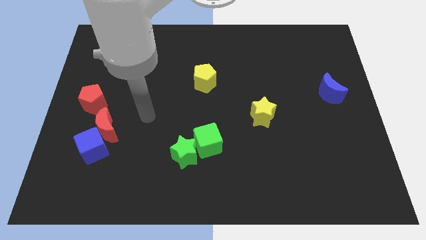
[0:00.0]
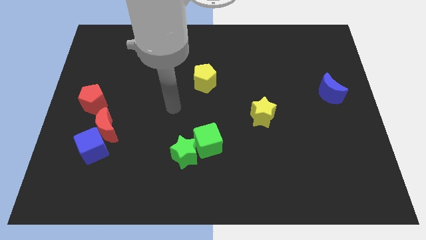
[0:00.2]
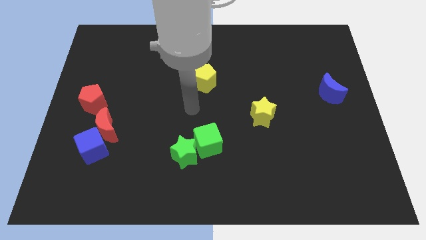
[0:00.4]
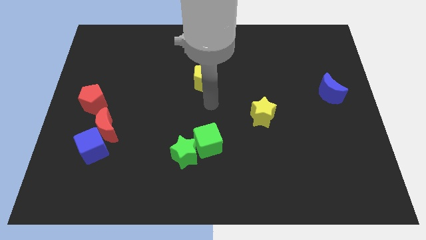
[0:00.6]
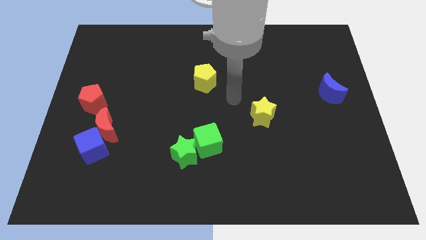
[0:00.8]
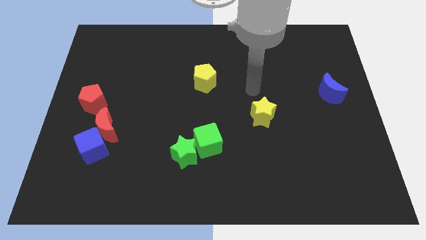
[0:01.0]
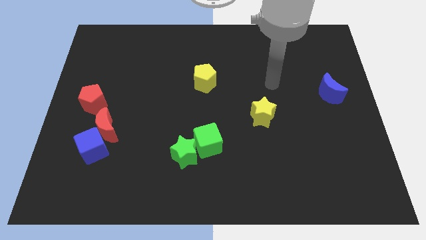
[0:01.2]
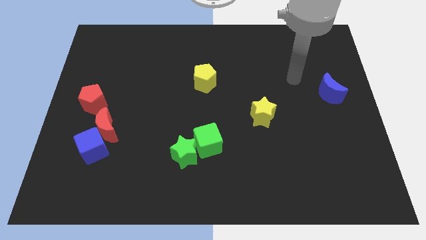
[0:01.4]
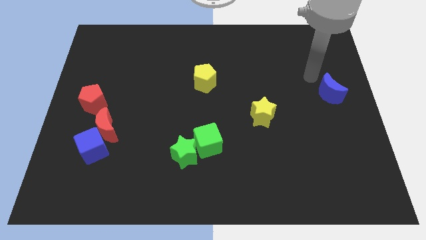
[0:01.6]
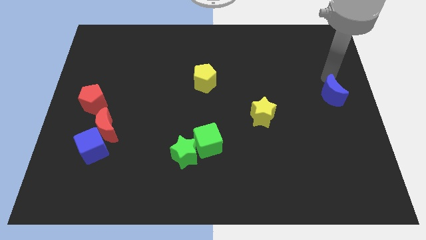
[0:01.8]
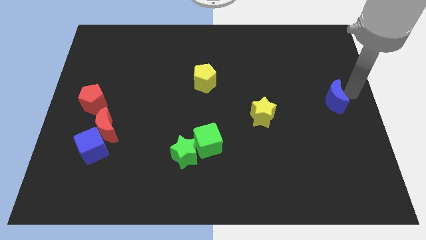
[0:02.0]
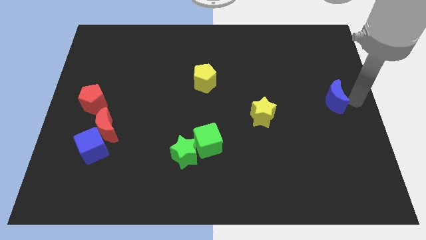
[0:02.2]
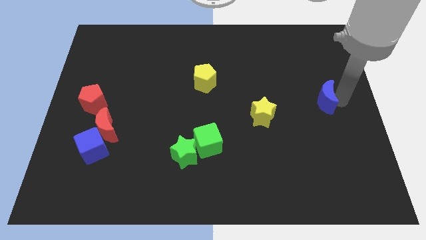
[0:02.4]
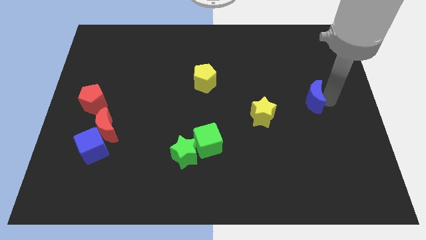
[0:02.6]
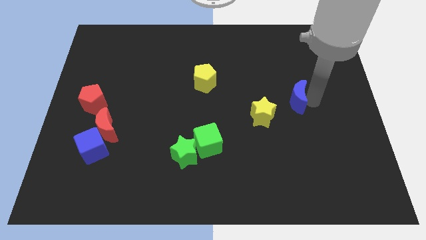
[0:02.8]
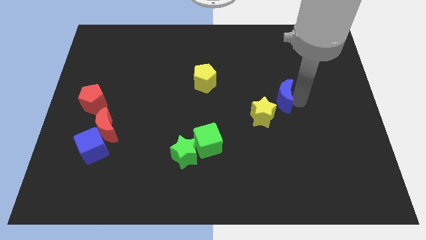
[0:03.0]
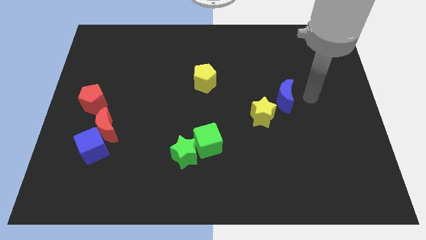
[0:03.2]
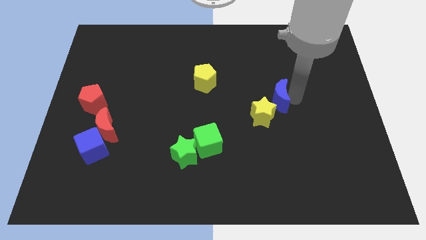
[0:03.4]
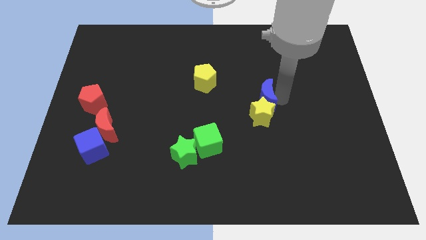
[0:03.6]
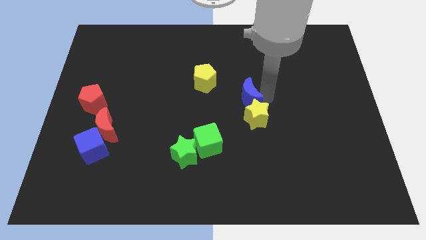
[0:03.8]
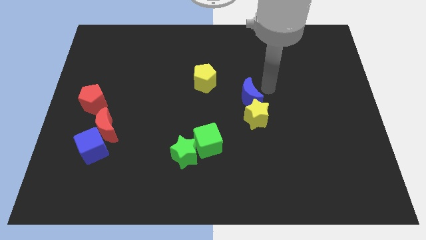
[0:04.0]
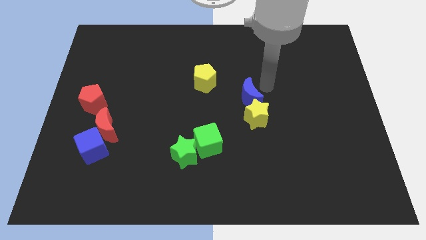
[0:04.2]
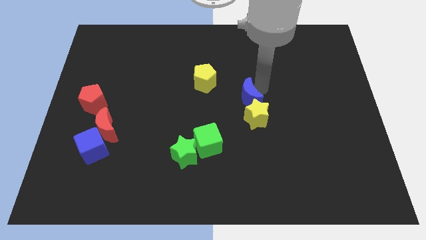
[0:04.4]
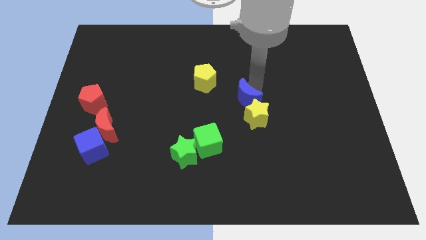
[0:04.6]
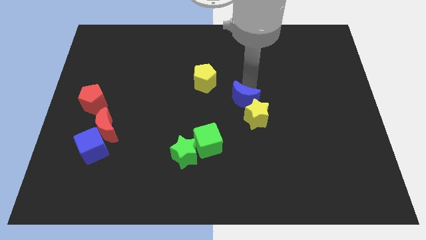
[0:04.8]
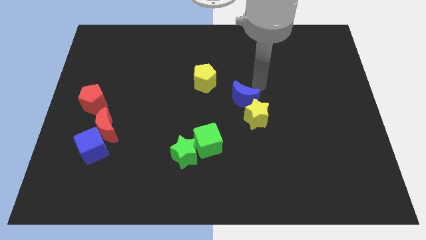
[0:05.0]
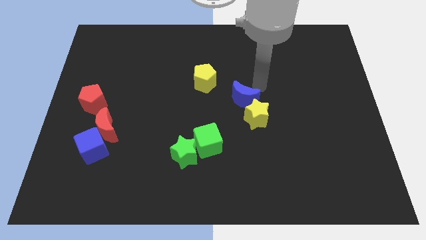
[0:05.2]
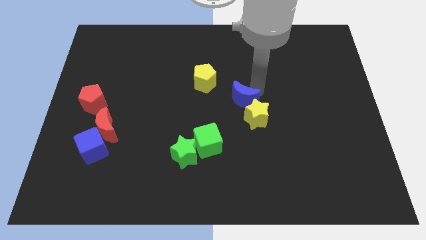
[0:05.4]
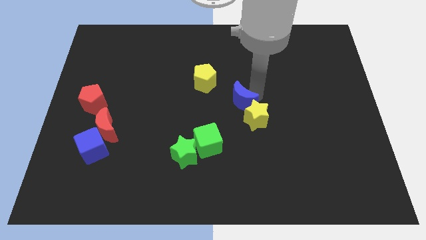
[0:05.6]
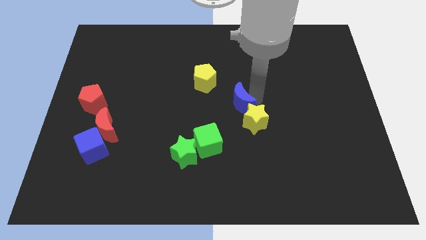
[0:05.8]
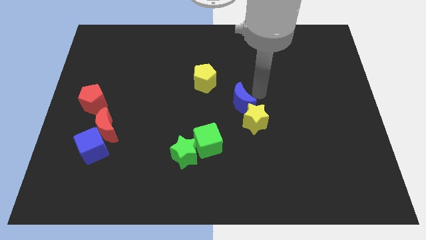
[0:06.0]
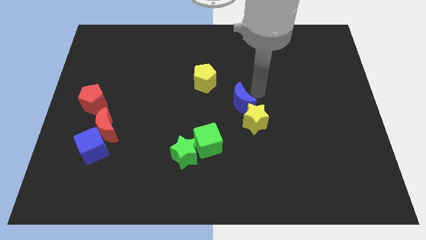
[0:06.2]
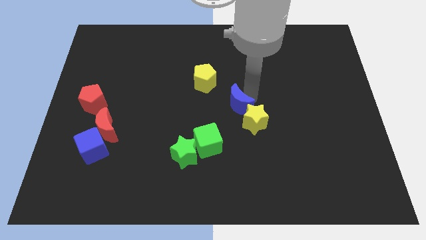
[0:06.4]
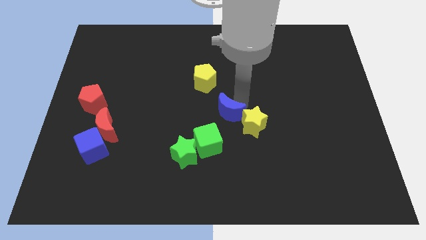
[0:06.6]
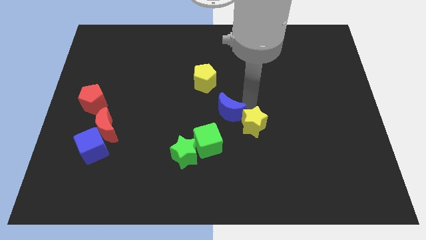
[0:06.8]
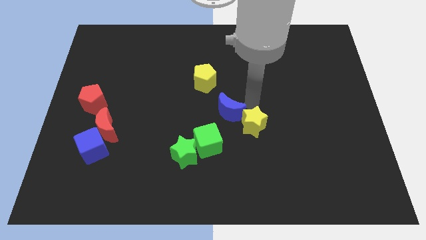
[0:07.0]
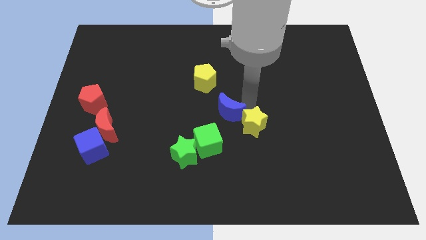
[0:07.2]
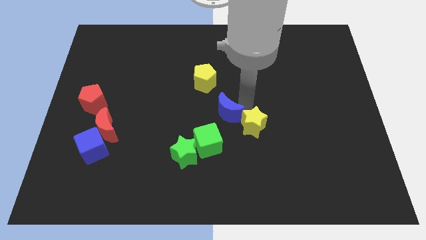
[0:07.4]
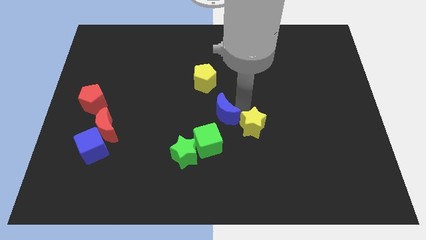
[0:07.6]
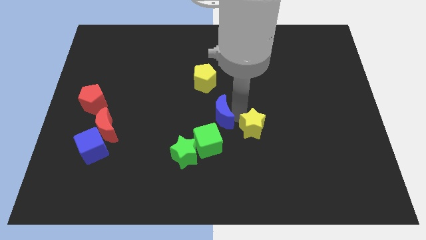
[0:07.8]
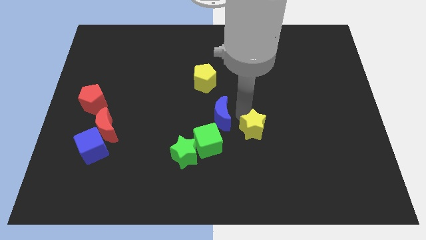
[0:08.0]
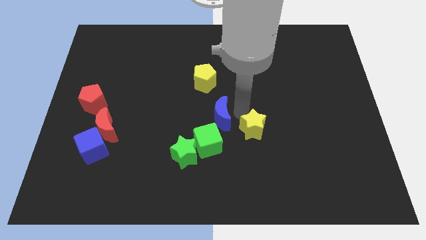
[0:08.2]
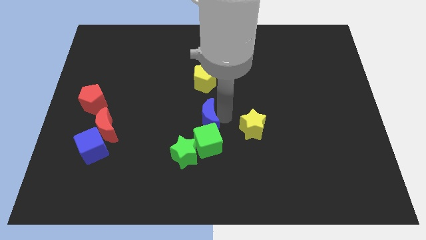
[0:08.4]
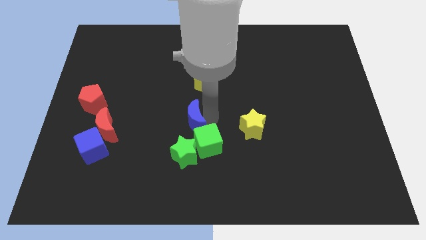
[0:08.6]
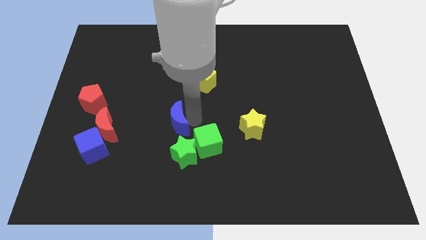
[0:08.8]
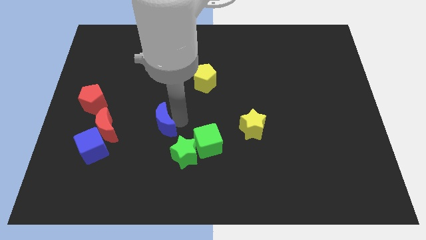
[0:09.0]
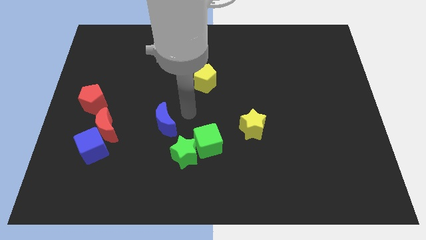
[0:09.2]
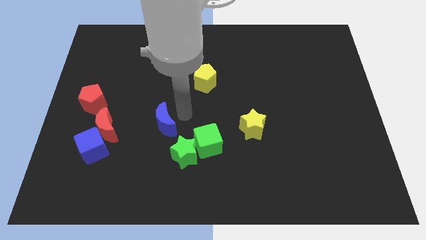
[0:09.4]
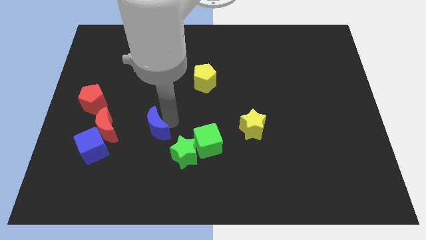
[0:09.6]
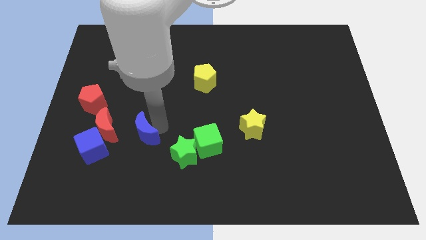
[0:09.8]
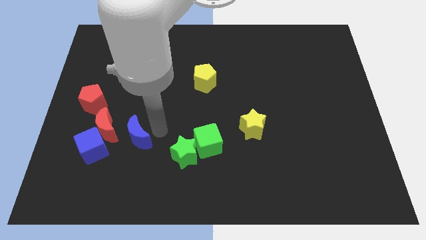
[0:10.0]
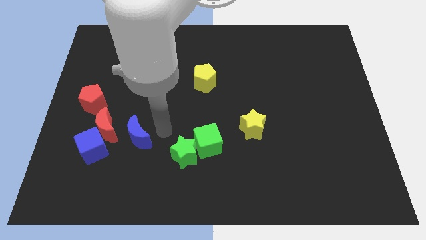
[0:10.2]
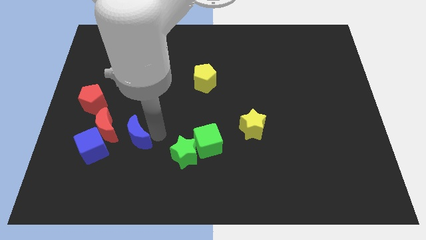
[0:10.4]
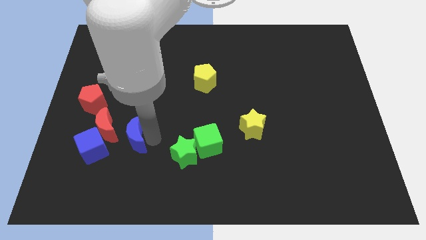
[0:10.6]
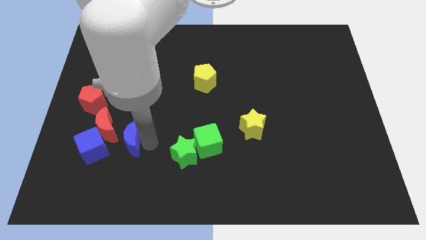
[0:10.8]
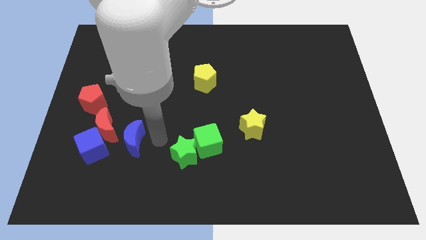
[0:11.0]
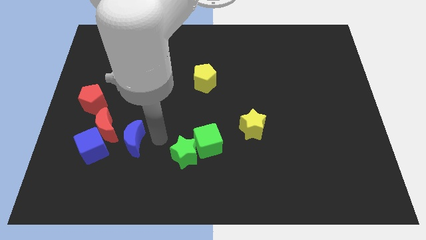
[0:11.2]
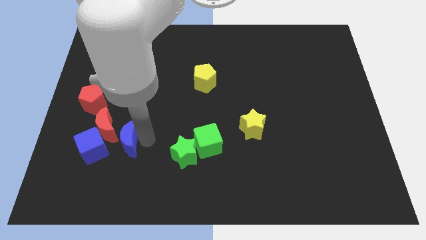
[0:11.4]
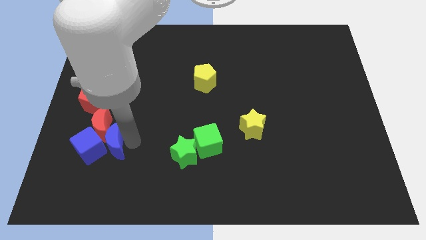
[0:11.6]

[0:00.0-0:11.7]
push the blue moon towards the blue cube

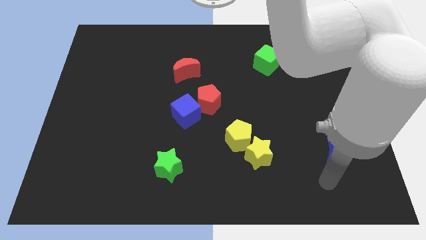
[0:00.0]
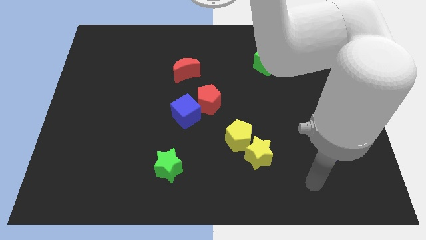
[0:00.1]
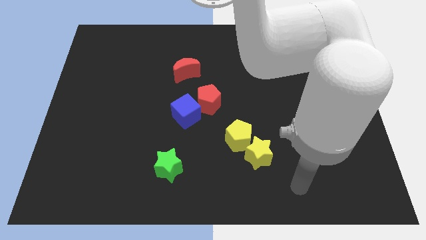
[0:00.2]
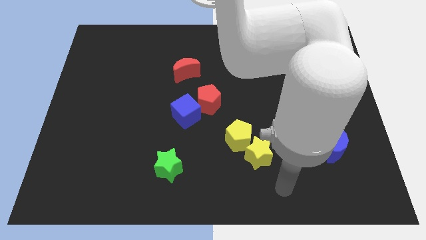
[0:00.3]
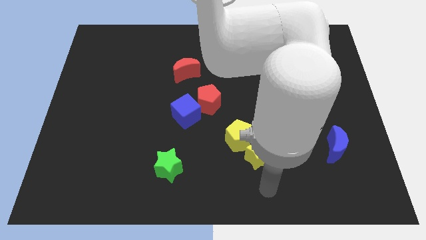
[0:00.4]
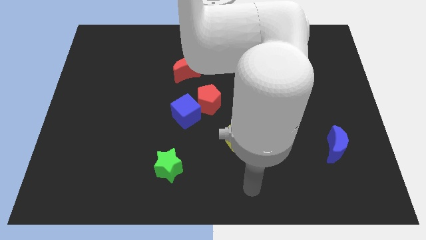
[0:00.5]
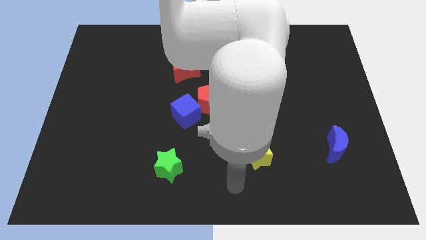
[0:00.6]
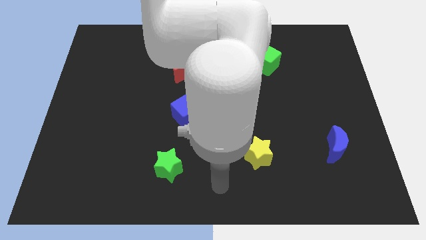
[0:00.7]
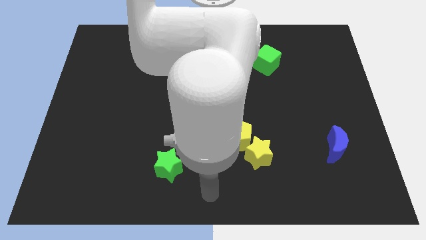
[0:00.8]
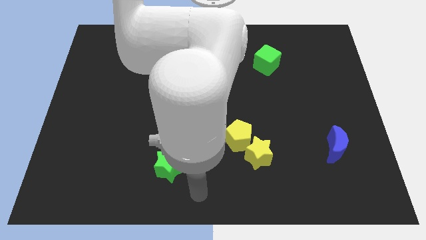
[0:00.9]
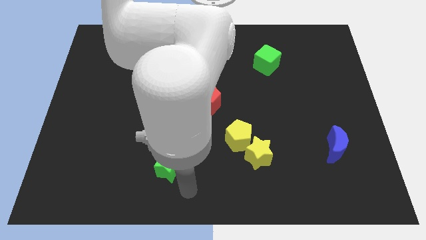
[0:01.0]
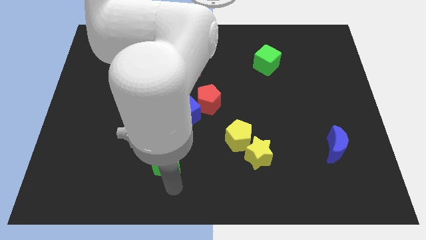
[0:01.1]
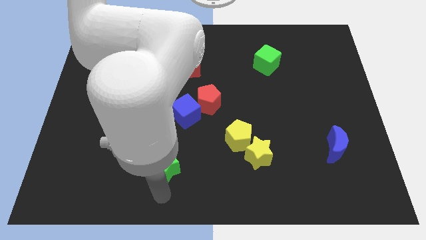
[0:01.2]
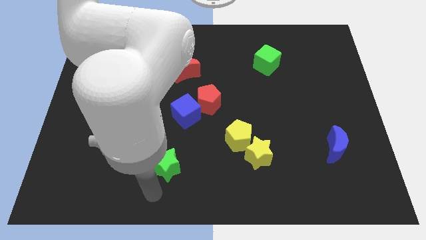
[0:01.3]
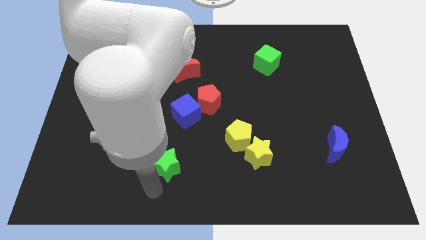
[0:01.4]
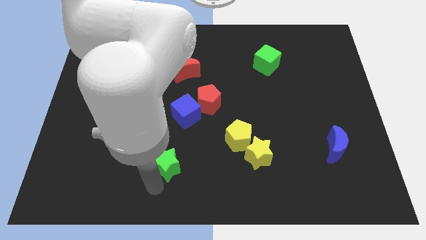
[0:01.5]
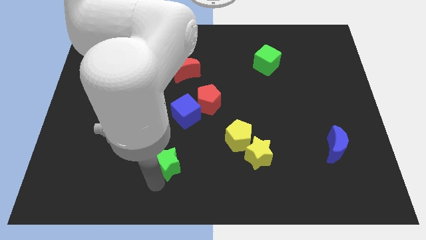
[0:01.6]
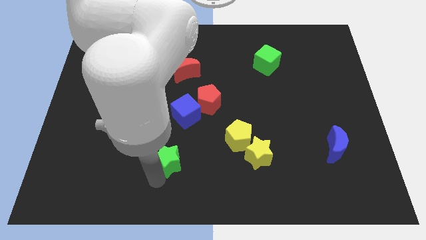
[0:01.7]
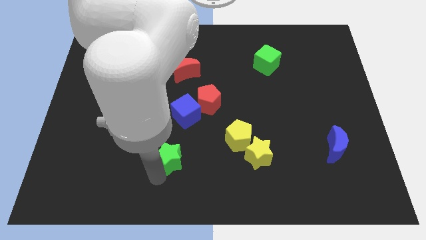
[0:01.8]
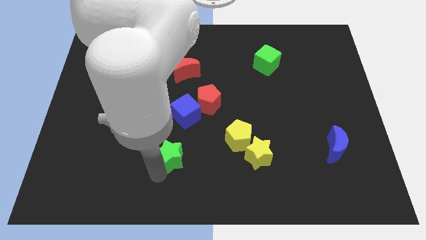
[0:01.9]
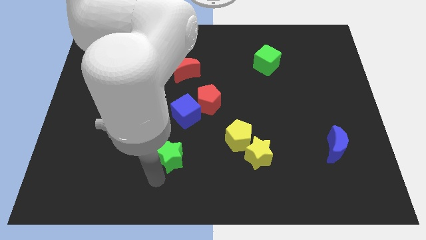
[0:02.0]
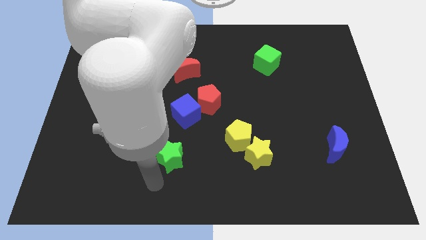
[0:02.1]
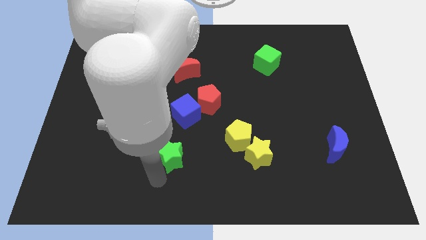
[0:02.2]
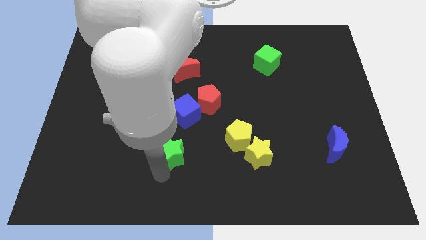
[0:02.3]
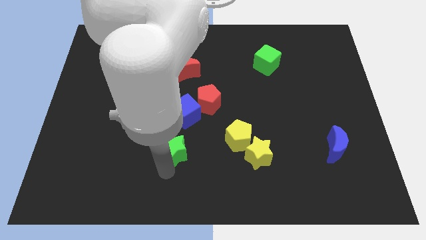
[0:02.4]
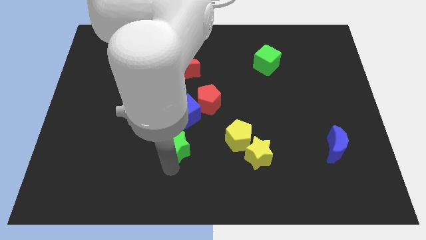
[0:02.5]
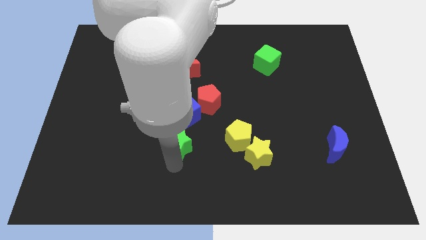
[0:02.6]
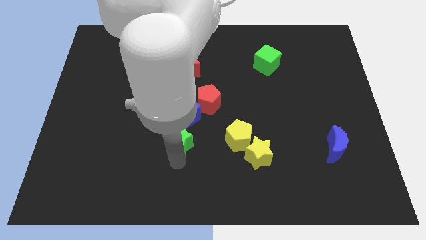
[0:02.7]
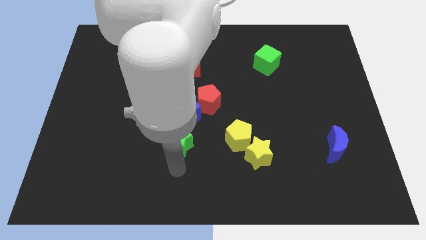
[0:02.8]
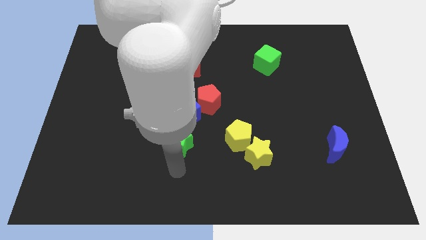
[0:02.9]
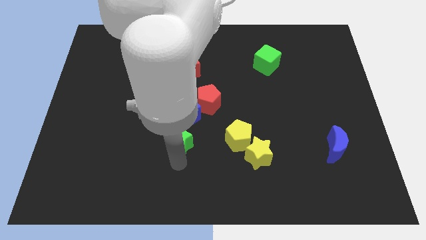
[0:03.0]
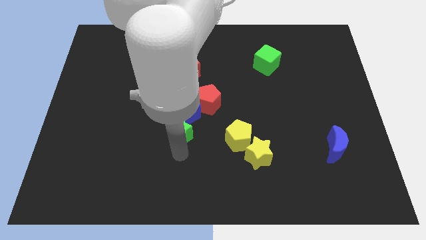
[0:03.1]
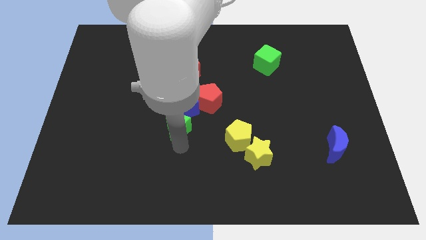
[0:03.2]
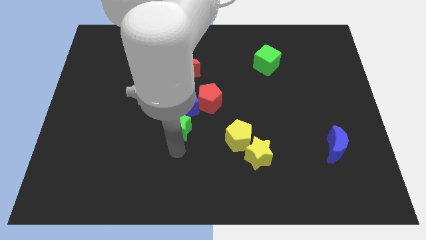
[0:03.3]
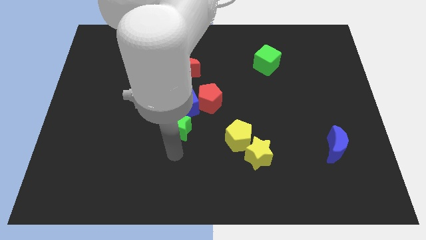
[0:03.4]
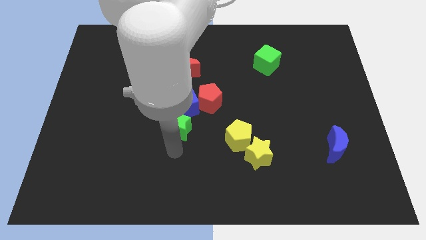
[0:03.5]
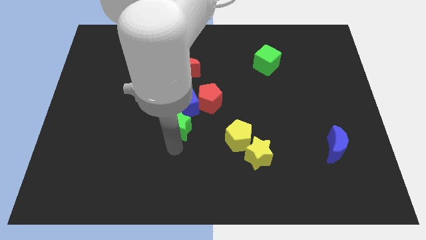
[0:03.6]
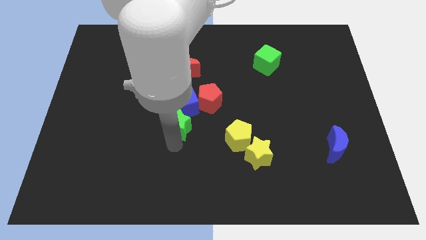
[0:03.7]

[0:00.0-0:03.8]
slide the green star to the blue cube
